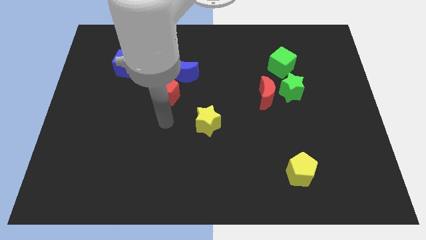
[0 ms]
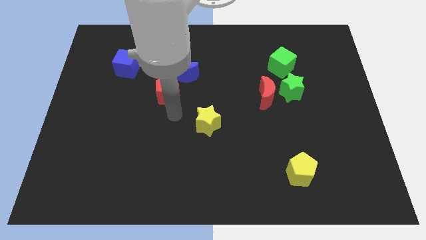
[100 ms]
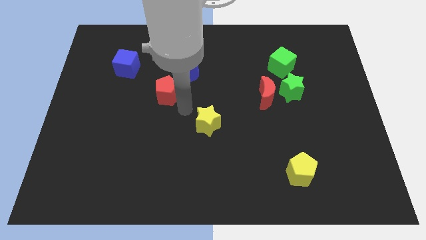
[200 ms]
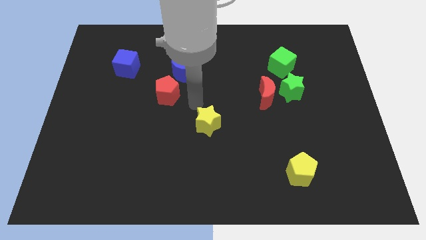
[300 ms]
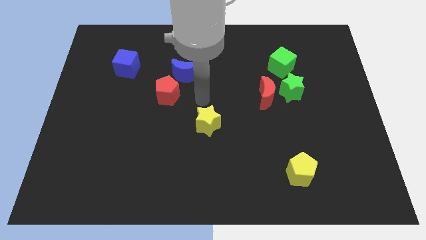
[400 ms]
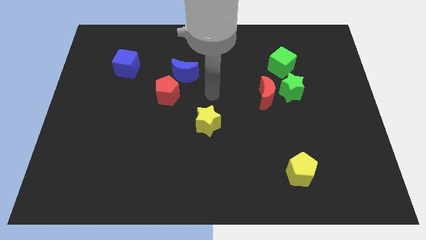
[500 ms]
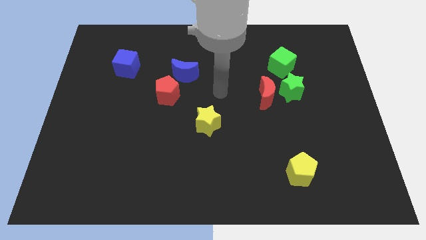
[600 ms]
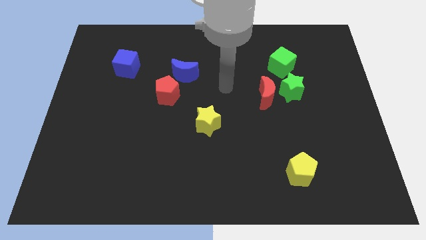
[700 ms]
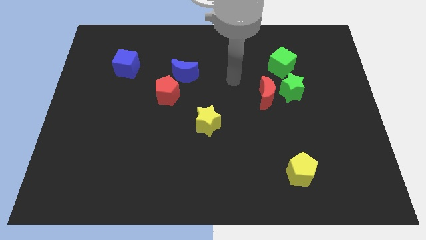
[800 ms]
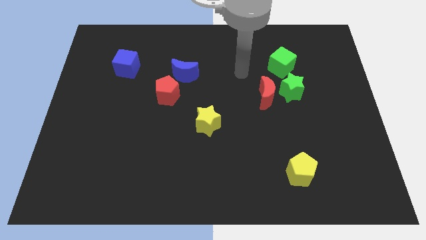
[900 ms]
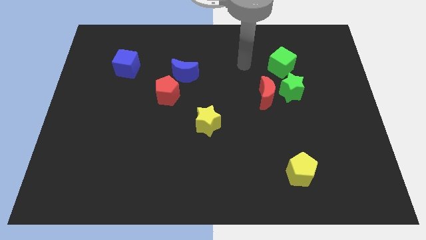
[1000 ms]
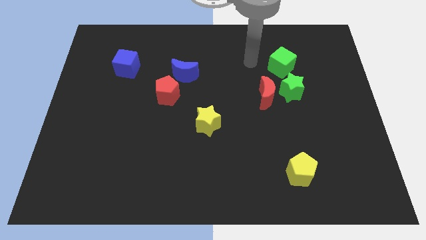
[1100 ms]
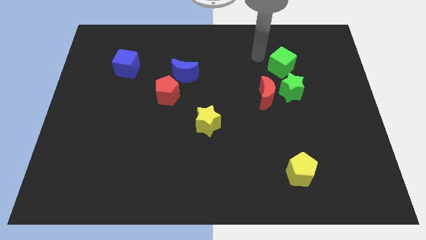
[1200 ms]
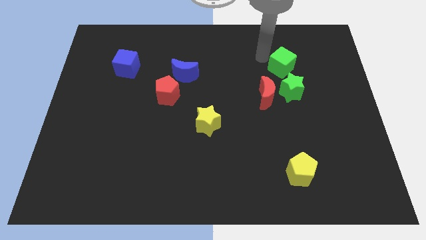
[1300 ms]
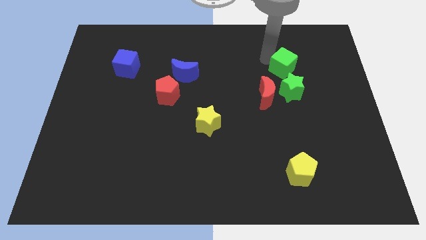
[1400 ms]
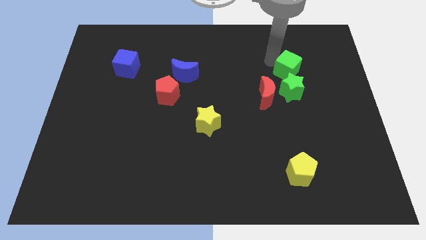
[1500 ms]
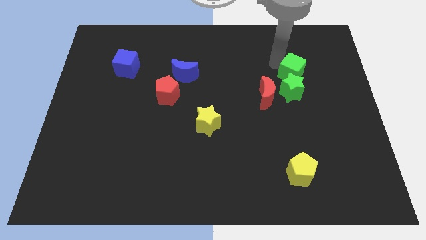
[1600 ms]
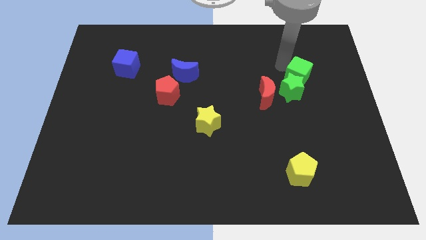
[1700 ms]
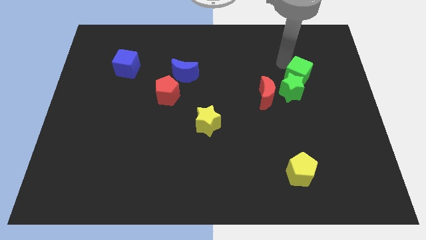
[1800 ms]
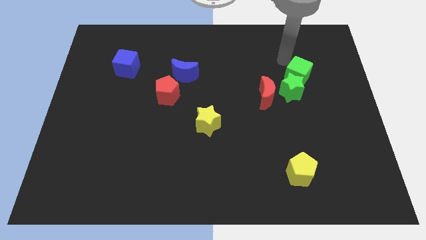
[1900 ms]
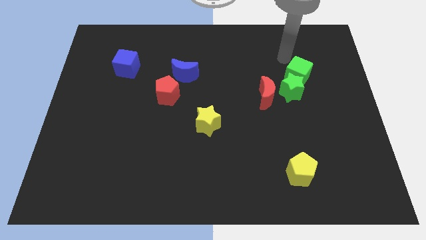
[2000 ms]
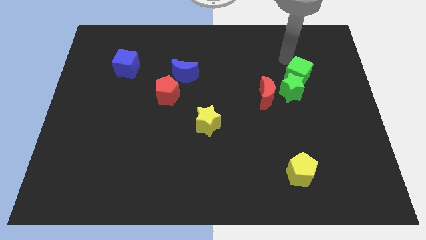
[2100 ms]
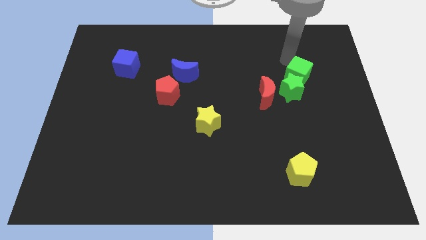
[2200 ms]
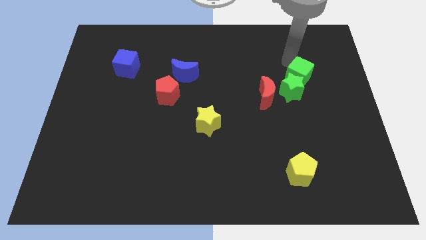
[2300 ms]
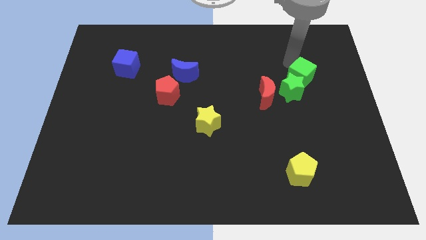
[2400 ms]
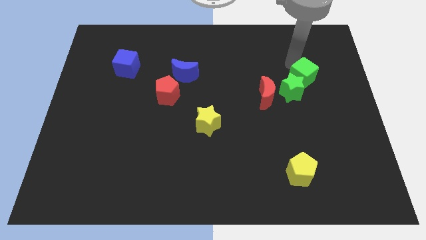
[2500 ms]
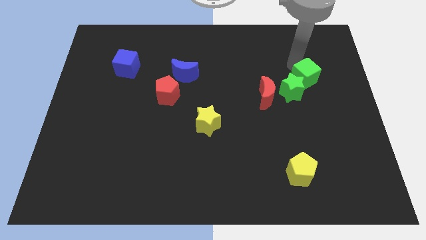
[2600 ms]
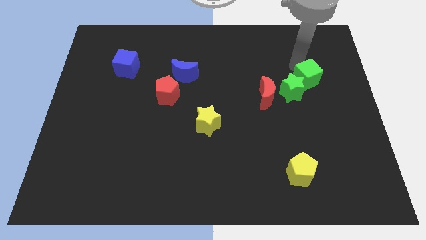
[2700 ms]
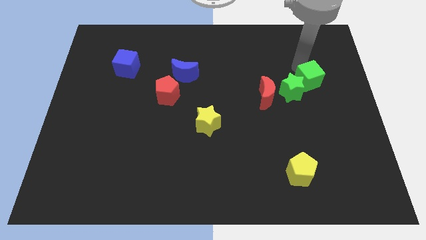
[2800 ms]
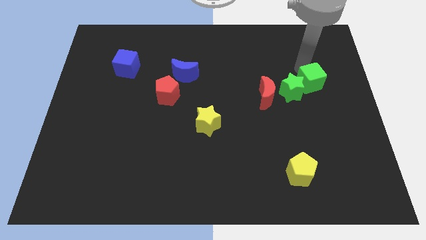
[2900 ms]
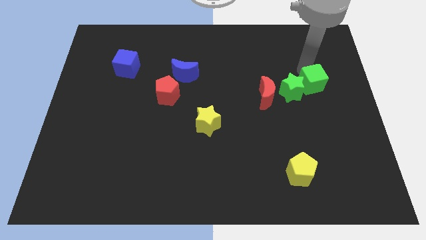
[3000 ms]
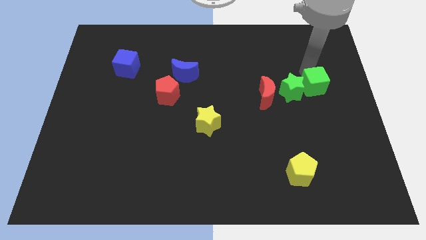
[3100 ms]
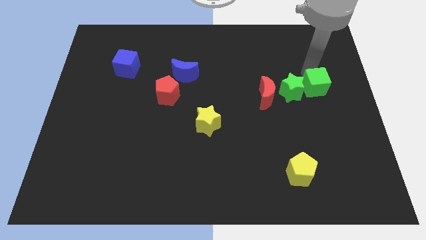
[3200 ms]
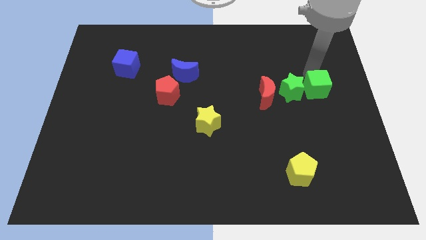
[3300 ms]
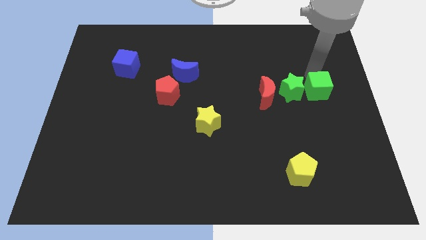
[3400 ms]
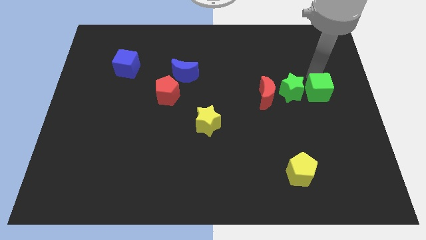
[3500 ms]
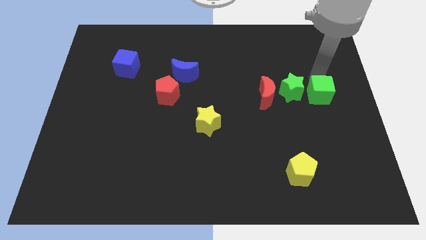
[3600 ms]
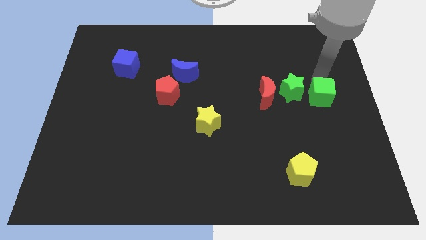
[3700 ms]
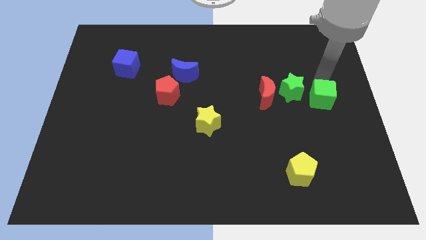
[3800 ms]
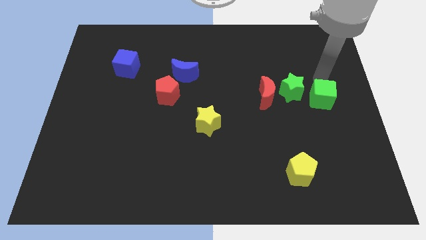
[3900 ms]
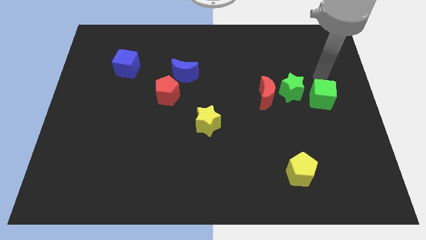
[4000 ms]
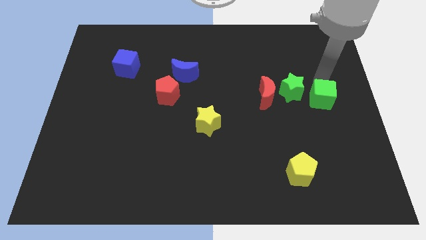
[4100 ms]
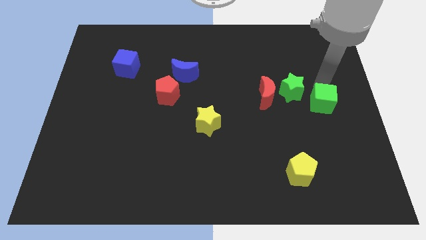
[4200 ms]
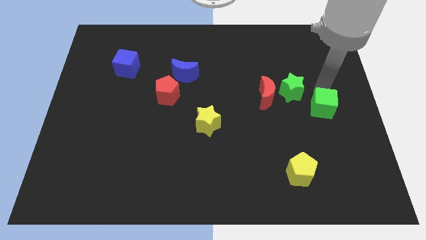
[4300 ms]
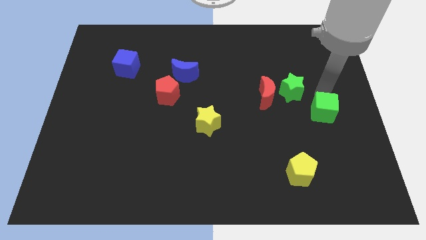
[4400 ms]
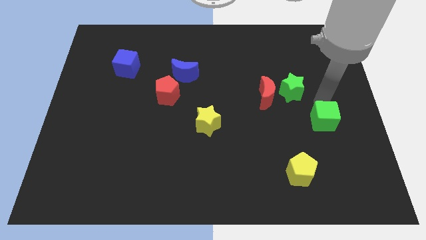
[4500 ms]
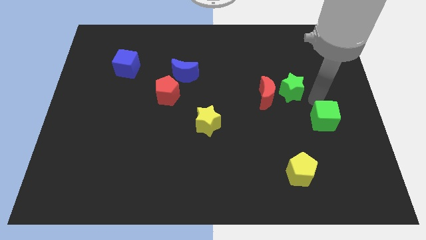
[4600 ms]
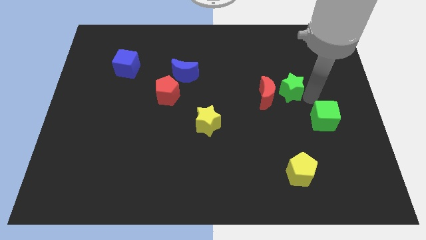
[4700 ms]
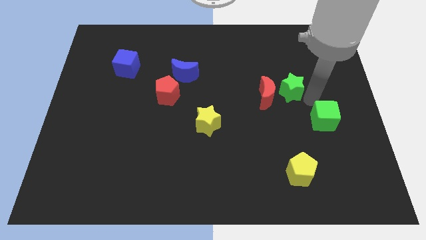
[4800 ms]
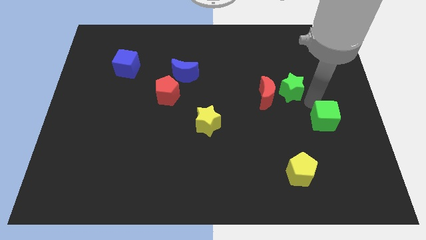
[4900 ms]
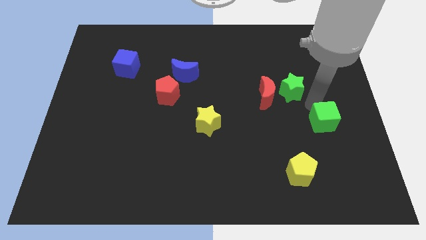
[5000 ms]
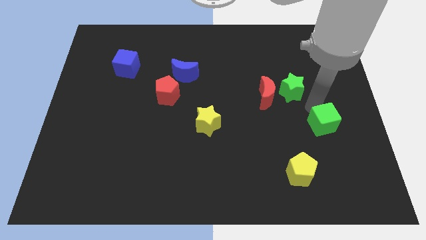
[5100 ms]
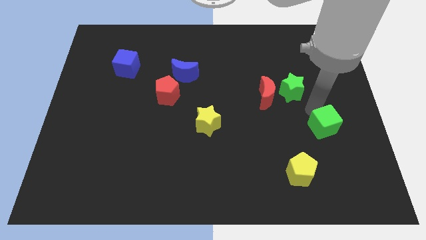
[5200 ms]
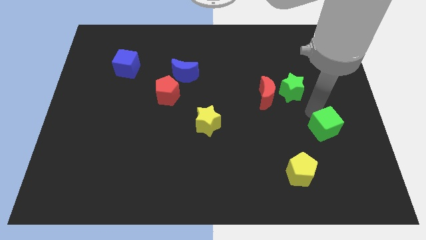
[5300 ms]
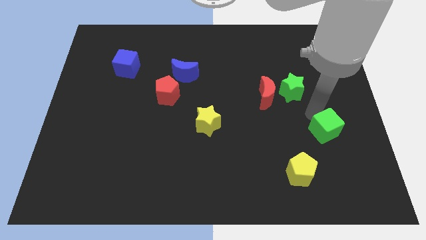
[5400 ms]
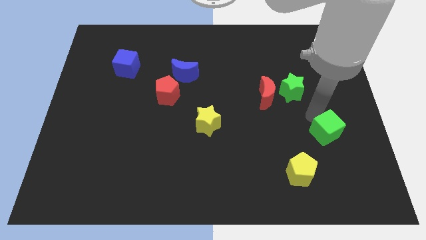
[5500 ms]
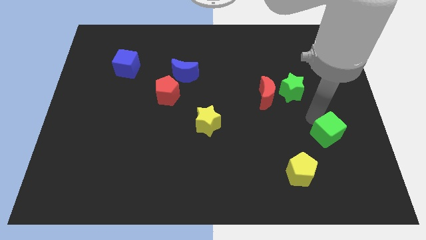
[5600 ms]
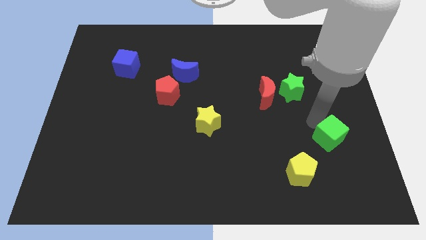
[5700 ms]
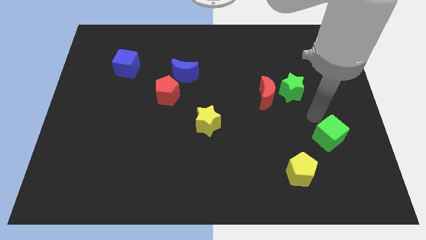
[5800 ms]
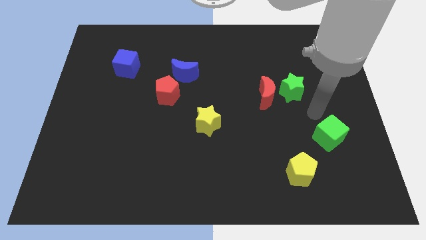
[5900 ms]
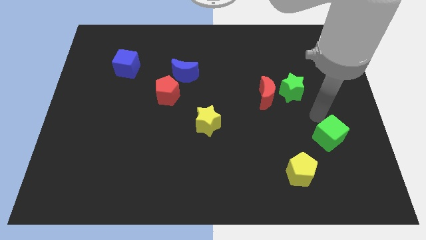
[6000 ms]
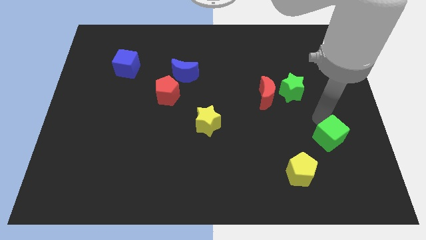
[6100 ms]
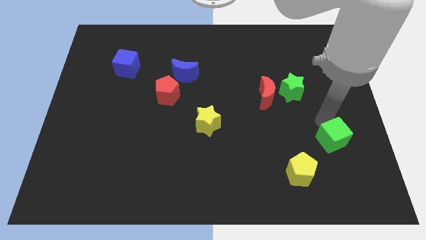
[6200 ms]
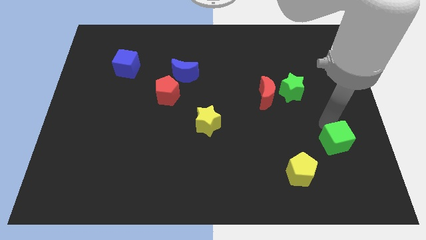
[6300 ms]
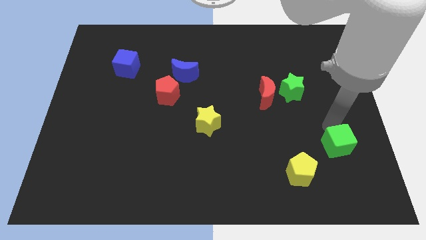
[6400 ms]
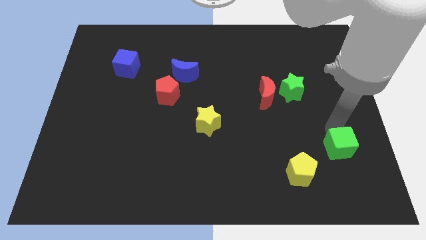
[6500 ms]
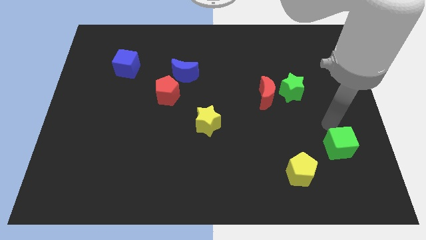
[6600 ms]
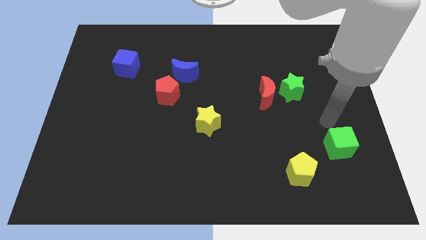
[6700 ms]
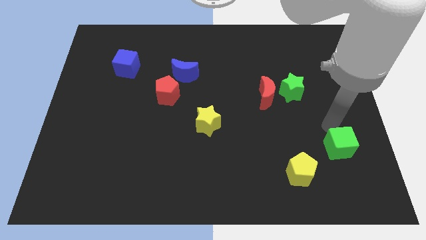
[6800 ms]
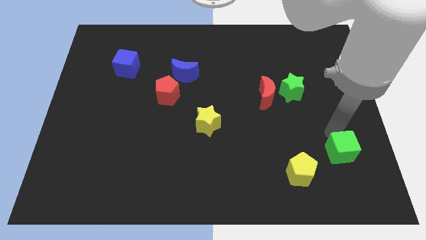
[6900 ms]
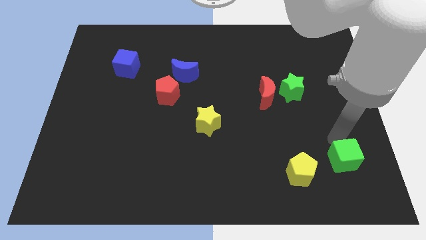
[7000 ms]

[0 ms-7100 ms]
move the green cube right of the yellow pentagon

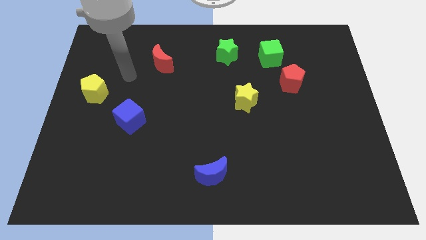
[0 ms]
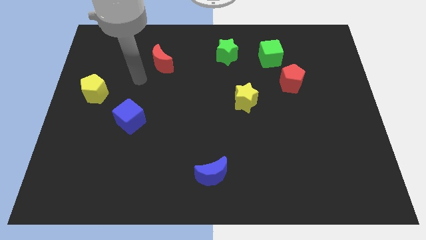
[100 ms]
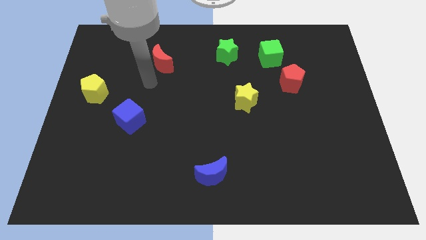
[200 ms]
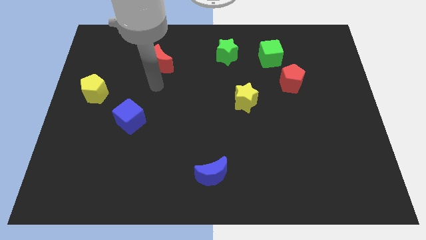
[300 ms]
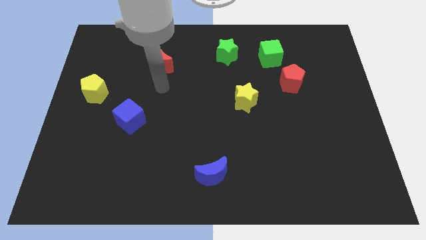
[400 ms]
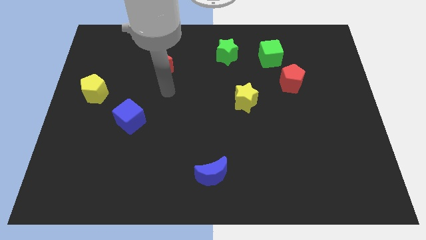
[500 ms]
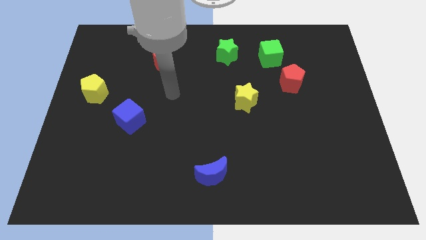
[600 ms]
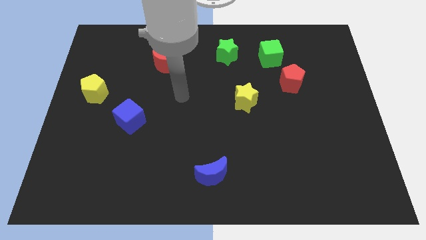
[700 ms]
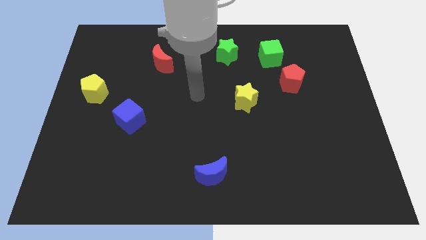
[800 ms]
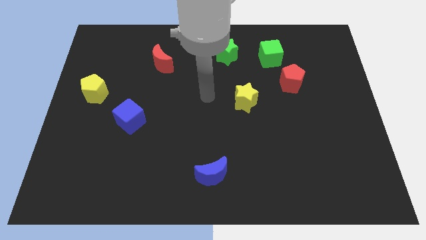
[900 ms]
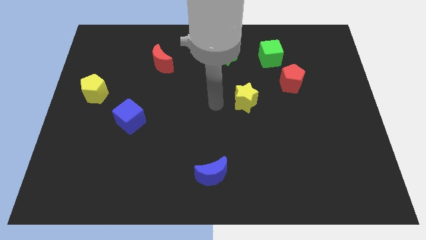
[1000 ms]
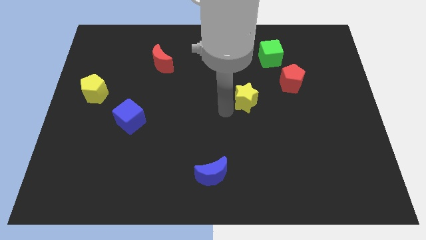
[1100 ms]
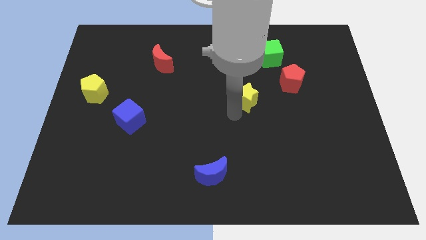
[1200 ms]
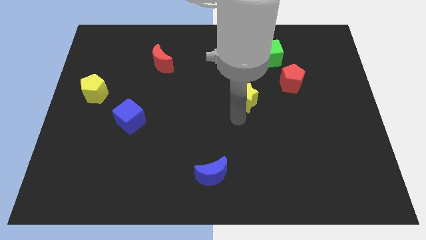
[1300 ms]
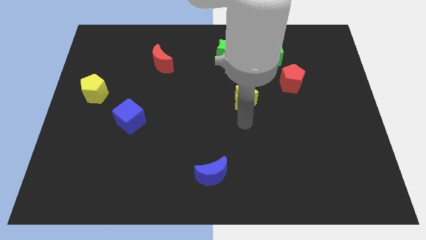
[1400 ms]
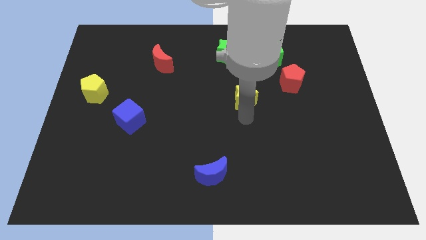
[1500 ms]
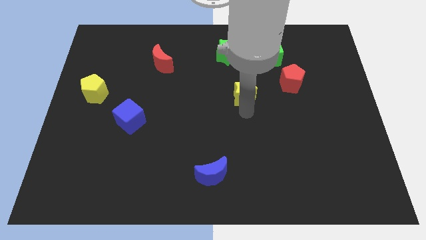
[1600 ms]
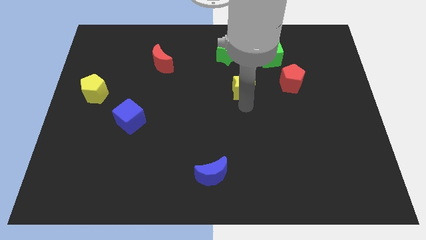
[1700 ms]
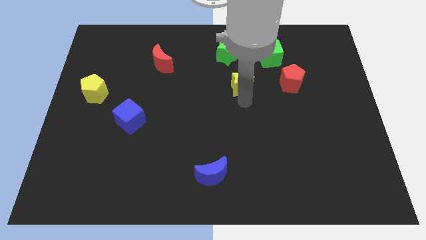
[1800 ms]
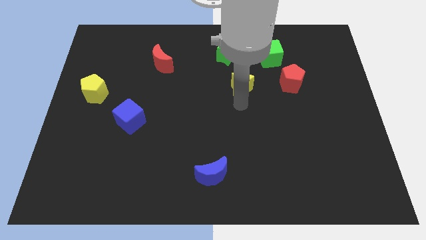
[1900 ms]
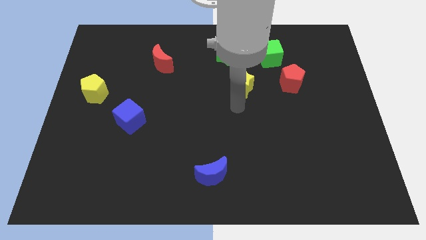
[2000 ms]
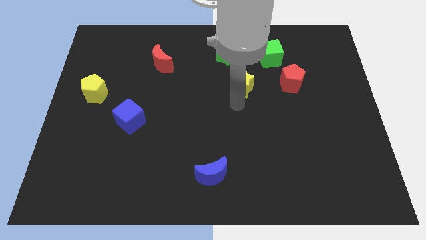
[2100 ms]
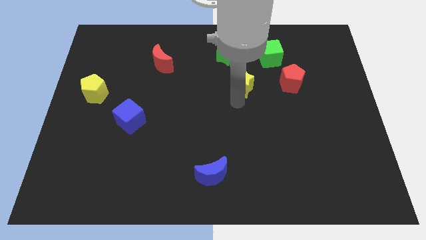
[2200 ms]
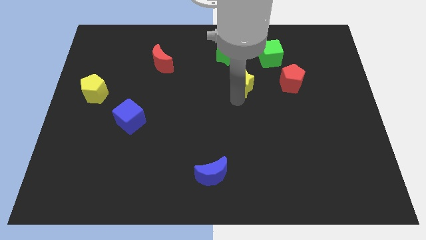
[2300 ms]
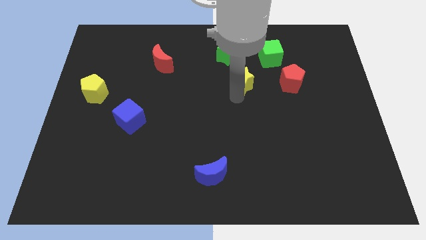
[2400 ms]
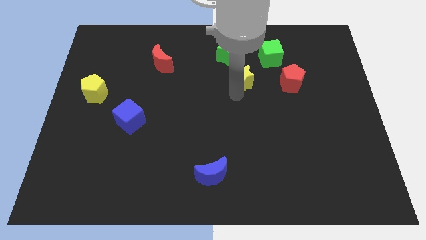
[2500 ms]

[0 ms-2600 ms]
slide the yellow star to the bottom right side of the green star
